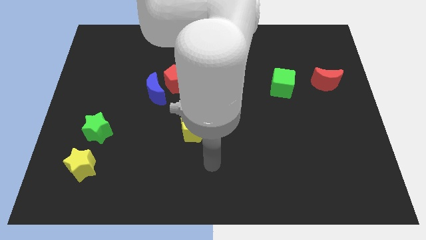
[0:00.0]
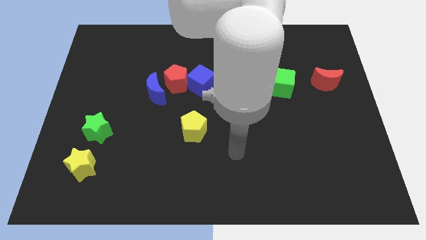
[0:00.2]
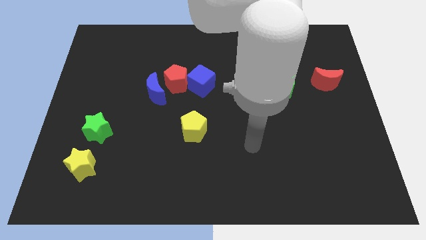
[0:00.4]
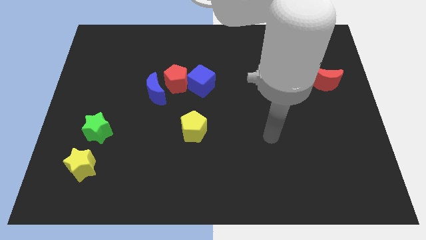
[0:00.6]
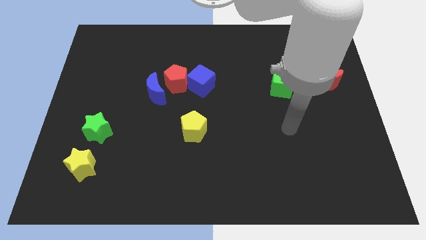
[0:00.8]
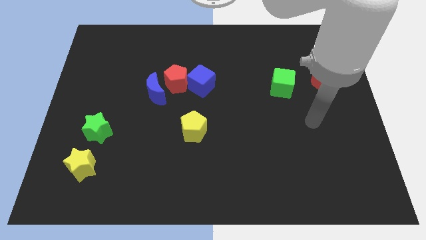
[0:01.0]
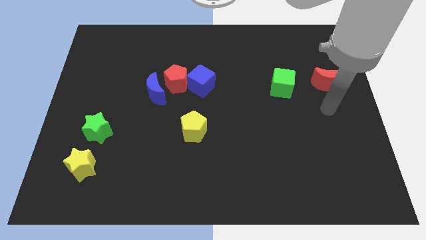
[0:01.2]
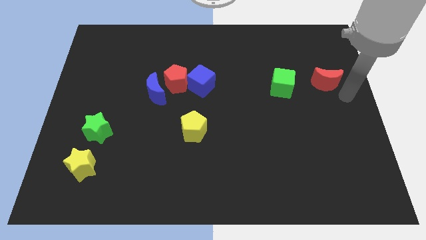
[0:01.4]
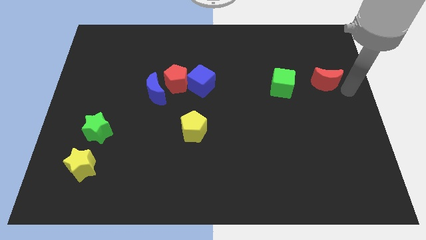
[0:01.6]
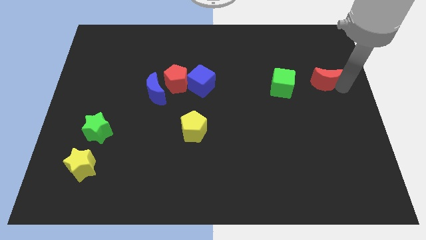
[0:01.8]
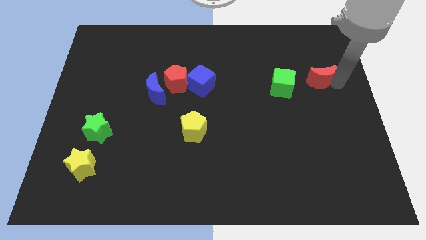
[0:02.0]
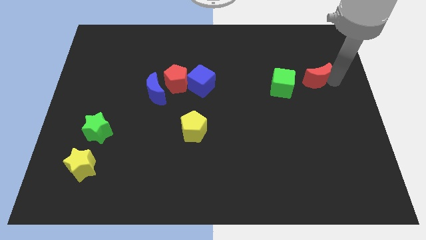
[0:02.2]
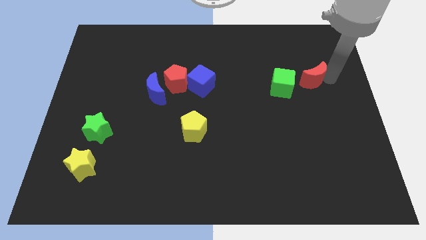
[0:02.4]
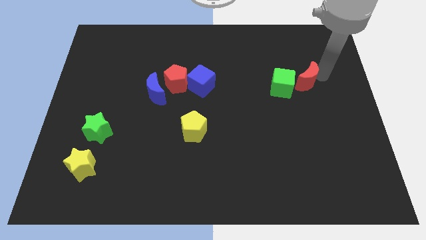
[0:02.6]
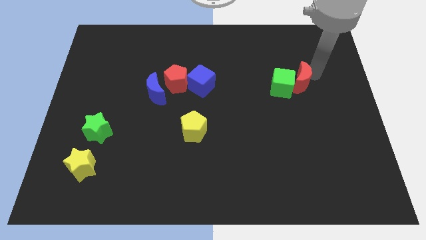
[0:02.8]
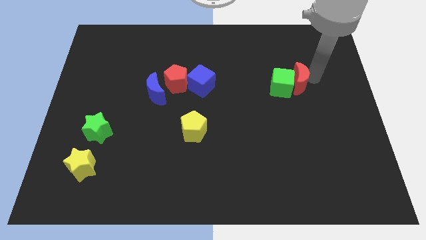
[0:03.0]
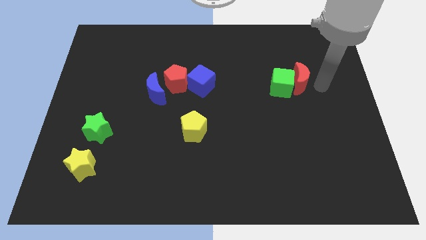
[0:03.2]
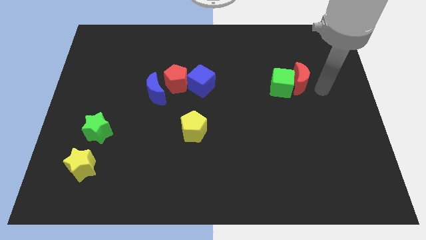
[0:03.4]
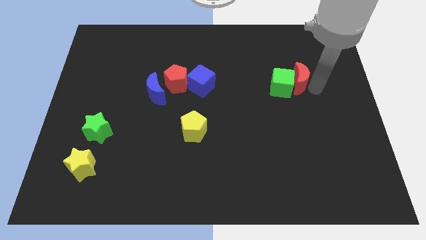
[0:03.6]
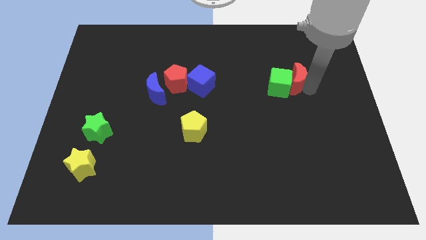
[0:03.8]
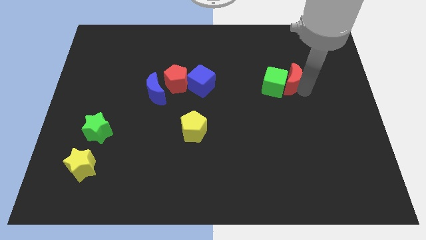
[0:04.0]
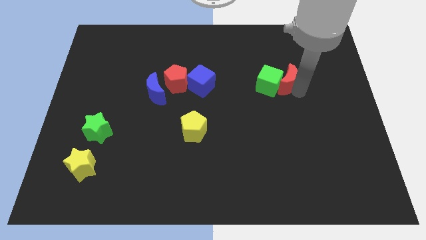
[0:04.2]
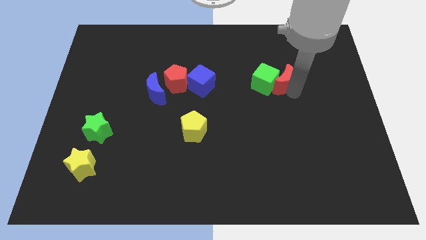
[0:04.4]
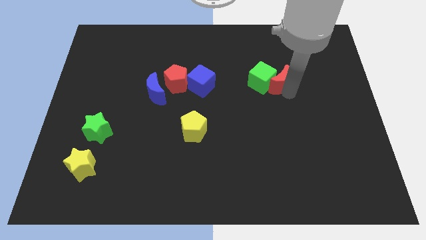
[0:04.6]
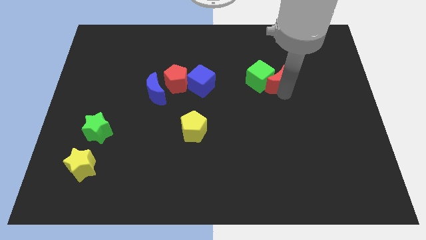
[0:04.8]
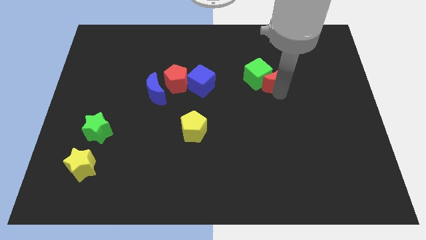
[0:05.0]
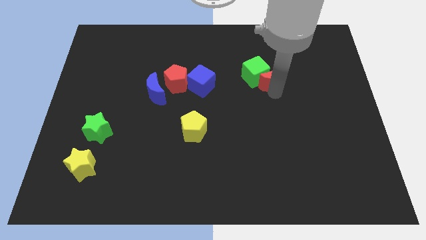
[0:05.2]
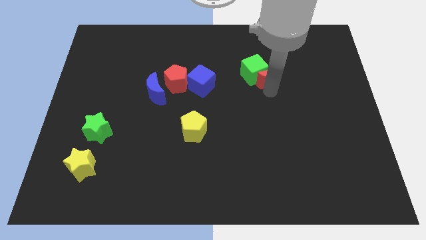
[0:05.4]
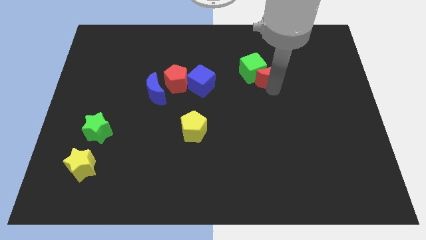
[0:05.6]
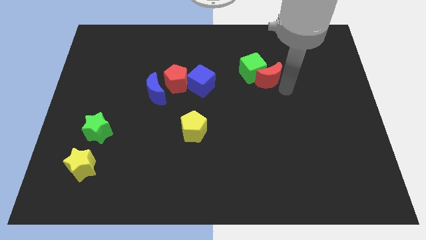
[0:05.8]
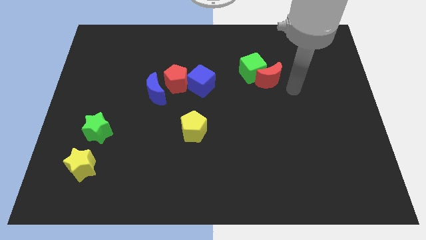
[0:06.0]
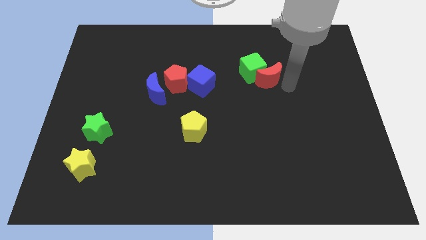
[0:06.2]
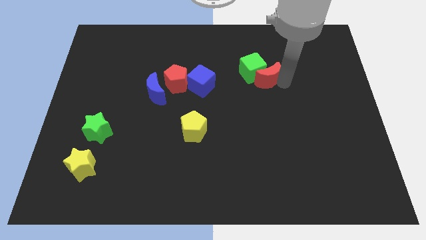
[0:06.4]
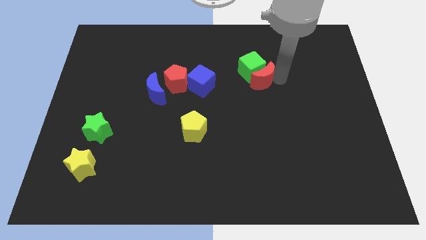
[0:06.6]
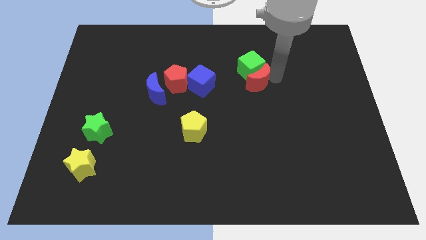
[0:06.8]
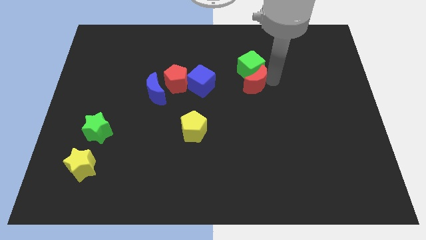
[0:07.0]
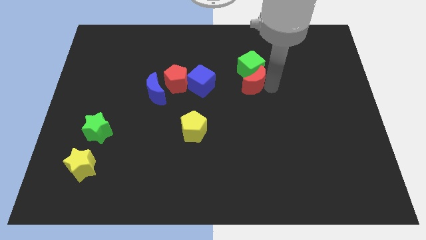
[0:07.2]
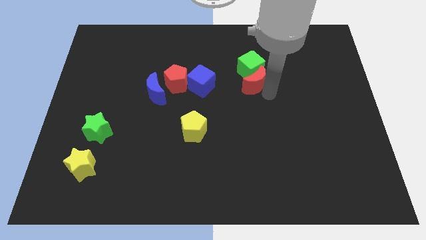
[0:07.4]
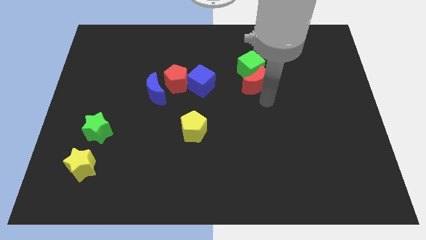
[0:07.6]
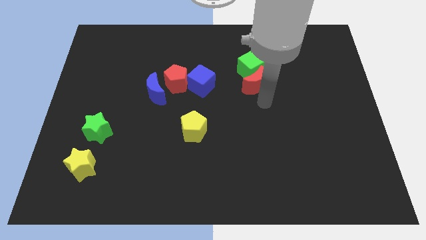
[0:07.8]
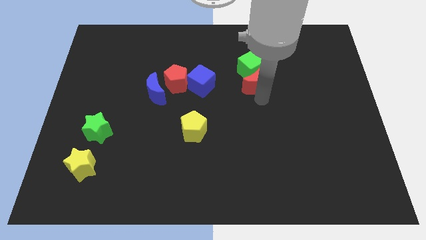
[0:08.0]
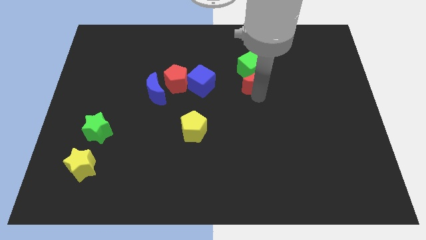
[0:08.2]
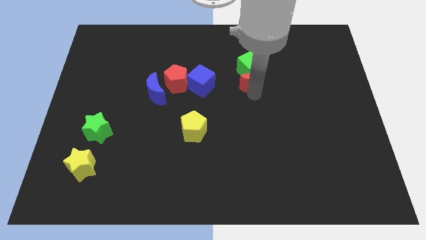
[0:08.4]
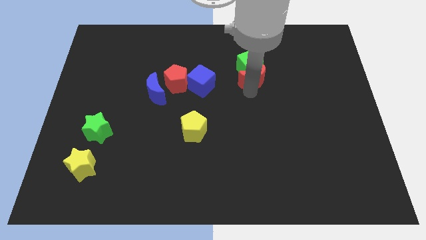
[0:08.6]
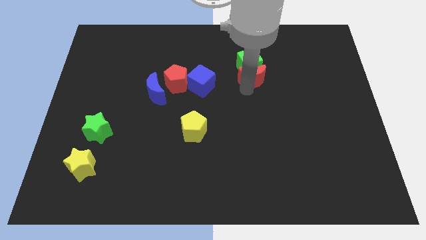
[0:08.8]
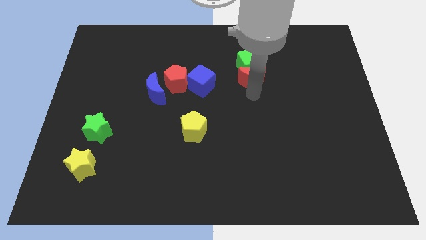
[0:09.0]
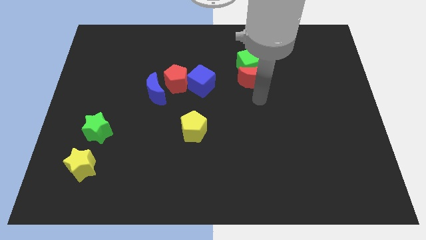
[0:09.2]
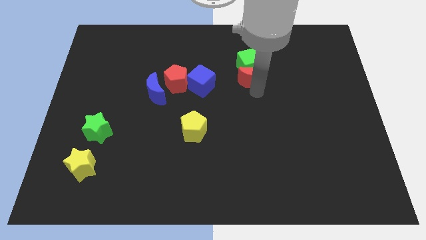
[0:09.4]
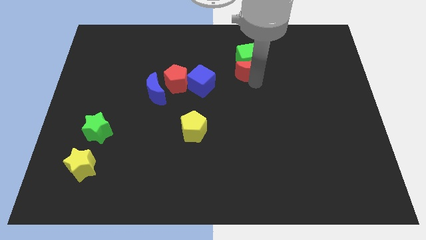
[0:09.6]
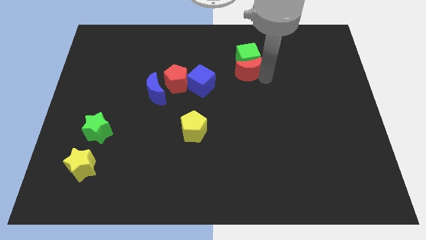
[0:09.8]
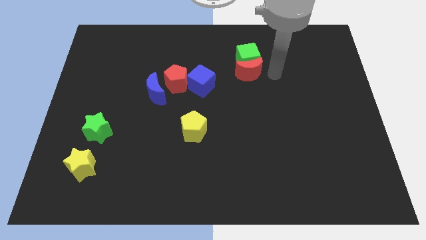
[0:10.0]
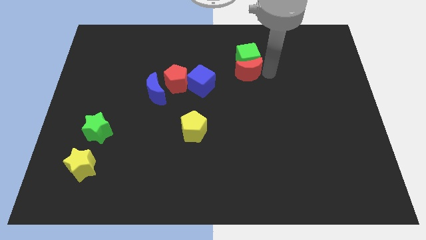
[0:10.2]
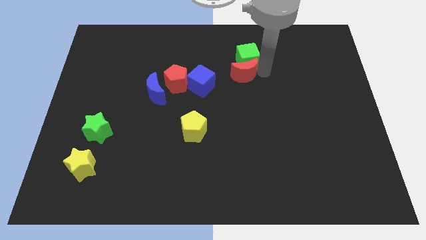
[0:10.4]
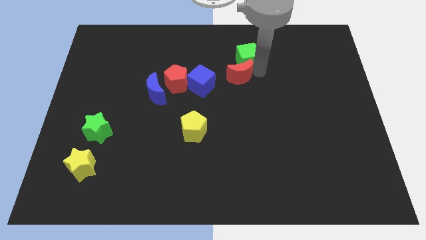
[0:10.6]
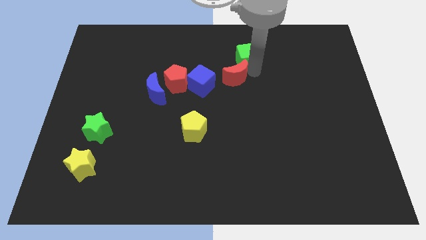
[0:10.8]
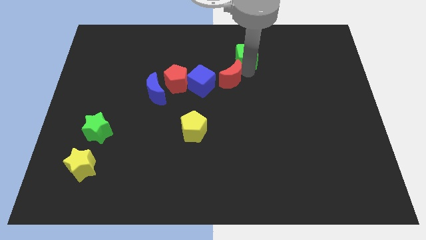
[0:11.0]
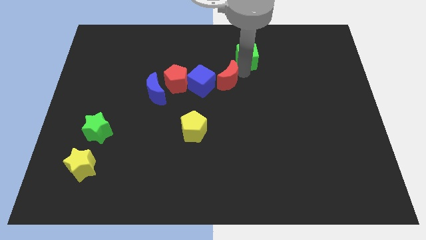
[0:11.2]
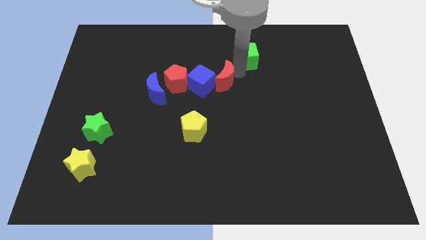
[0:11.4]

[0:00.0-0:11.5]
slide the red moon close to the blue cube

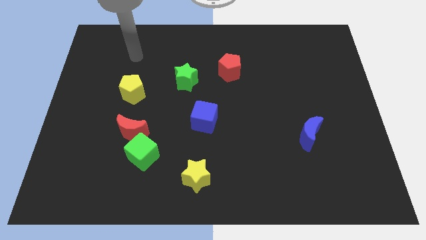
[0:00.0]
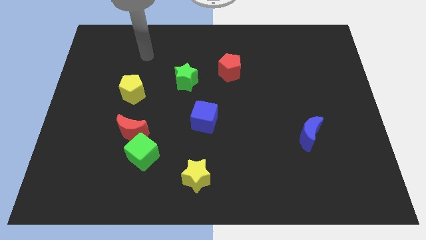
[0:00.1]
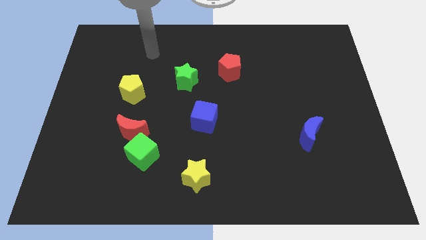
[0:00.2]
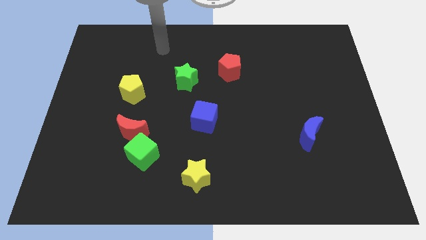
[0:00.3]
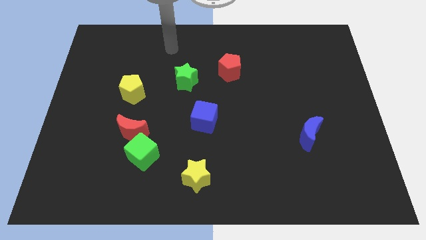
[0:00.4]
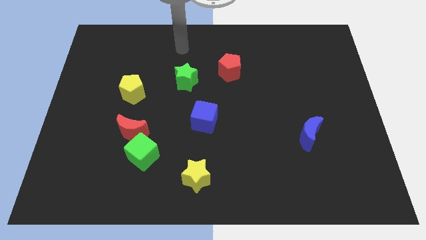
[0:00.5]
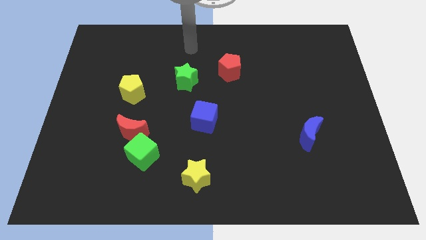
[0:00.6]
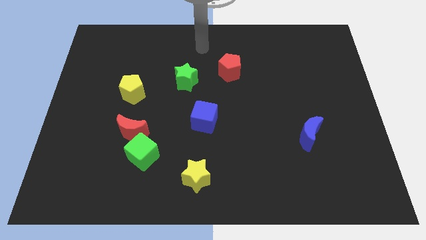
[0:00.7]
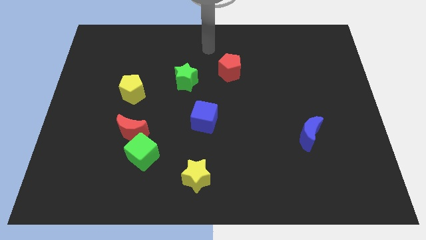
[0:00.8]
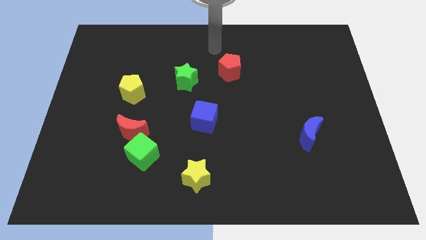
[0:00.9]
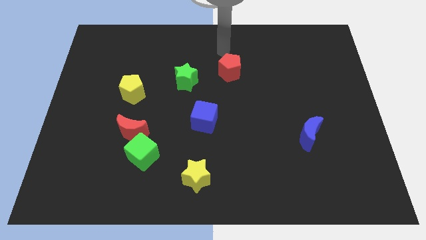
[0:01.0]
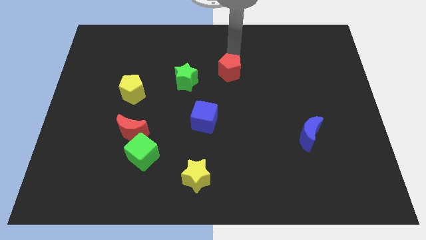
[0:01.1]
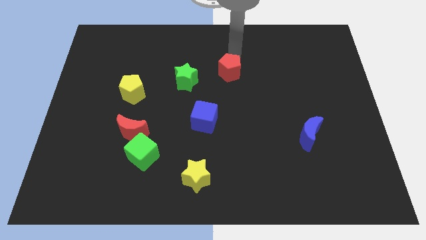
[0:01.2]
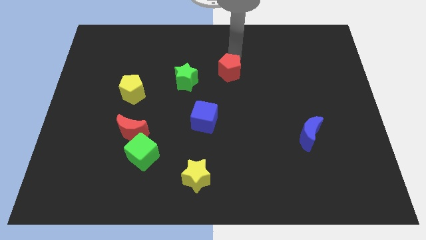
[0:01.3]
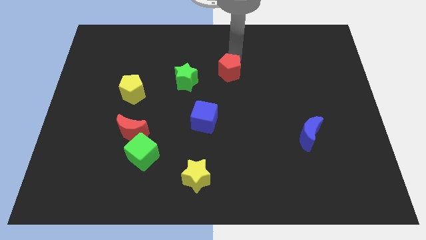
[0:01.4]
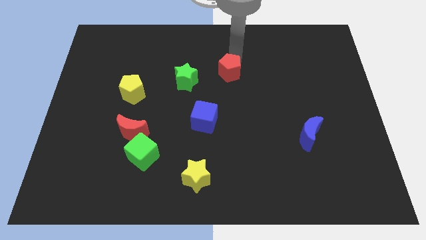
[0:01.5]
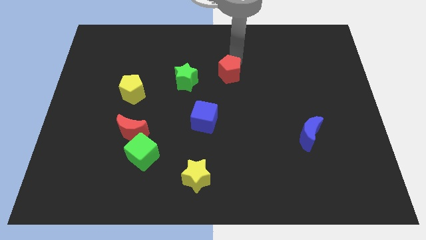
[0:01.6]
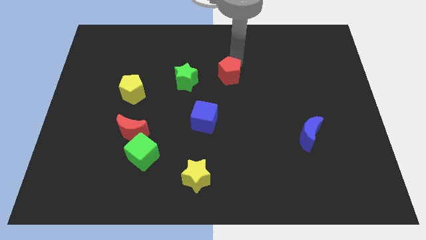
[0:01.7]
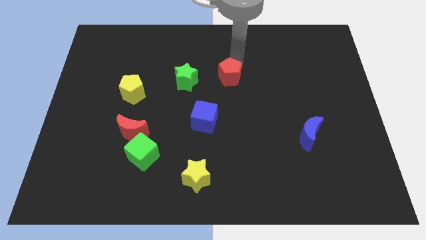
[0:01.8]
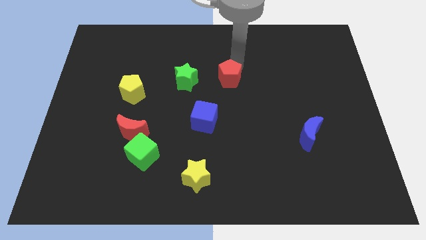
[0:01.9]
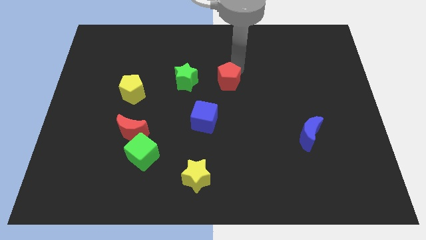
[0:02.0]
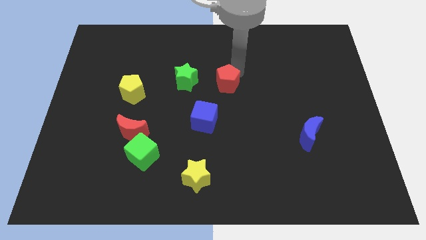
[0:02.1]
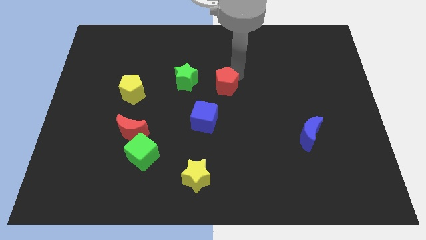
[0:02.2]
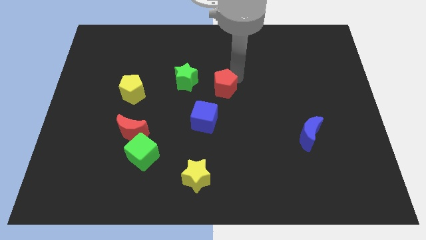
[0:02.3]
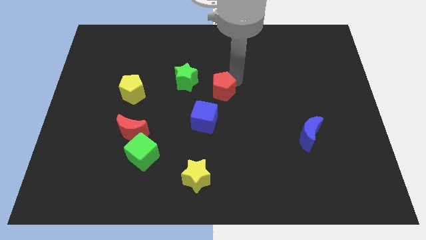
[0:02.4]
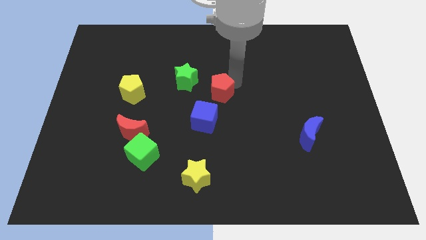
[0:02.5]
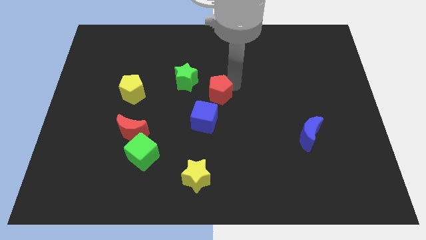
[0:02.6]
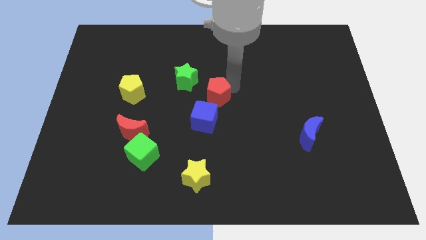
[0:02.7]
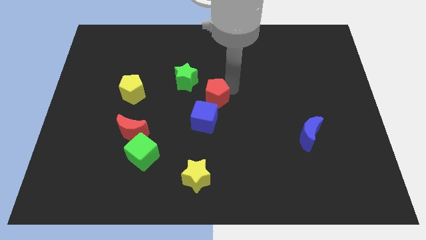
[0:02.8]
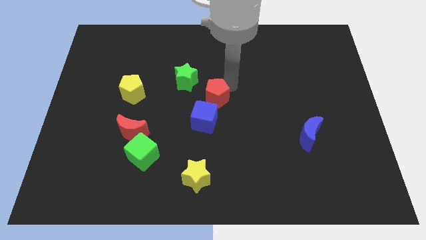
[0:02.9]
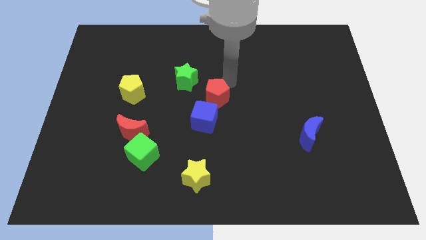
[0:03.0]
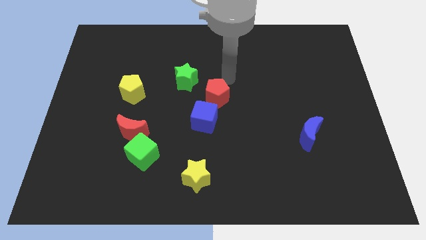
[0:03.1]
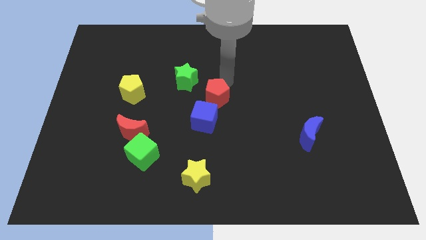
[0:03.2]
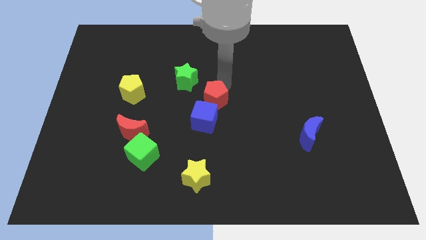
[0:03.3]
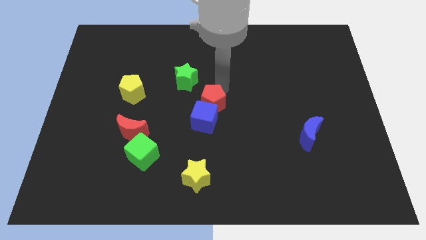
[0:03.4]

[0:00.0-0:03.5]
slide the red pentagon close to the blue cube
